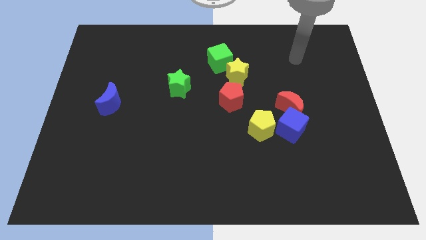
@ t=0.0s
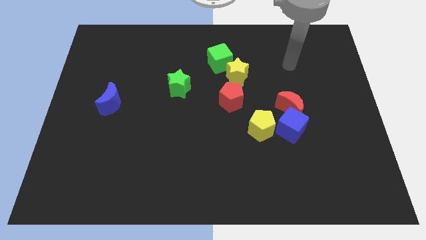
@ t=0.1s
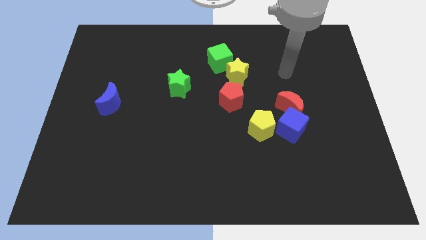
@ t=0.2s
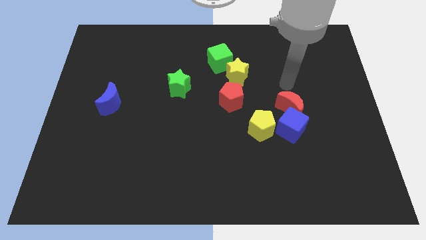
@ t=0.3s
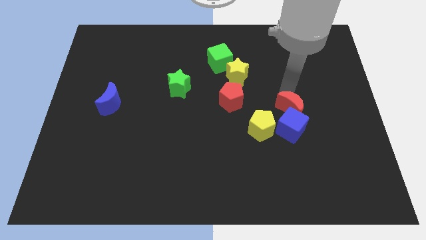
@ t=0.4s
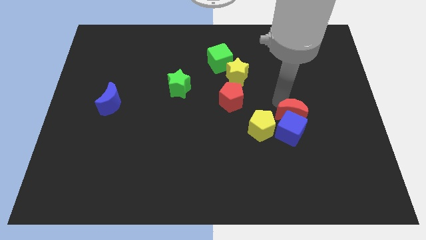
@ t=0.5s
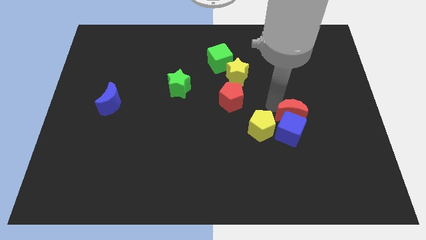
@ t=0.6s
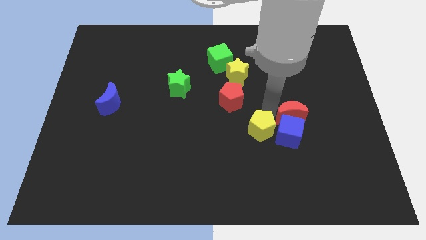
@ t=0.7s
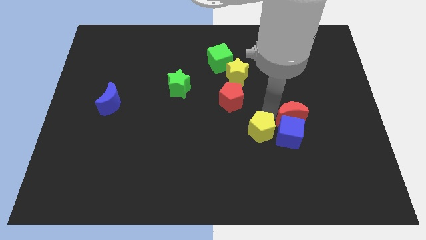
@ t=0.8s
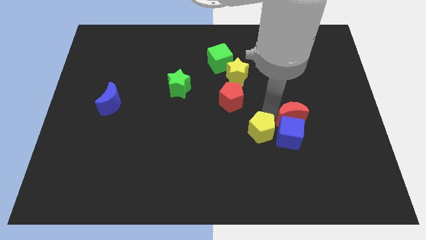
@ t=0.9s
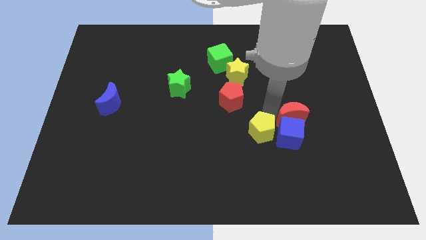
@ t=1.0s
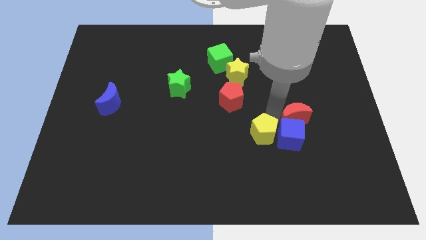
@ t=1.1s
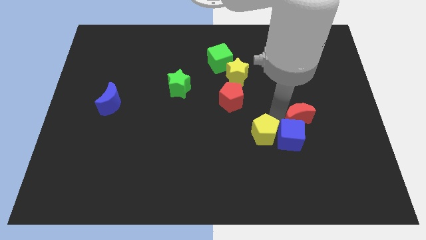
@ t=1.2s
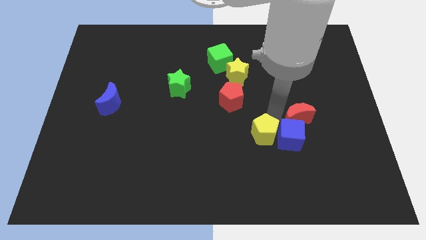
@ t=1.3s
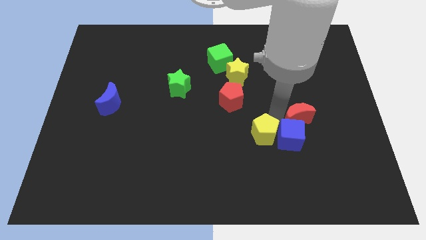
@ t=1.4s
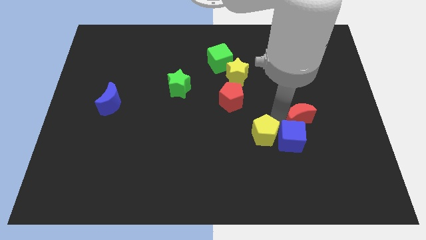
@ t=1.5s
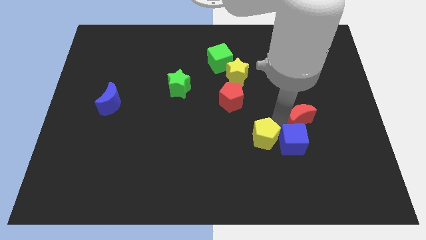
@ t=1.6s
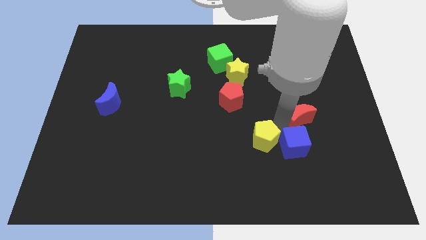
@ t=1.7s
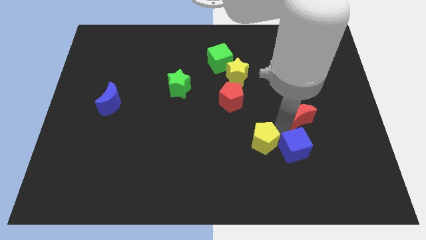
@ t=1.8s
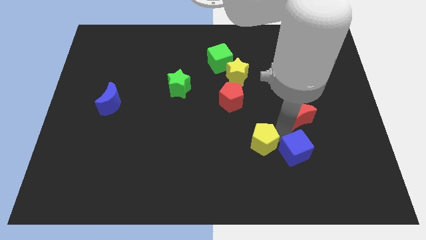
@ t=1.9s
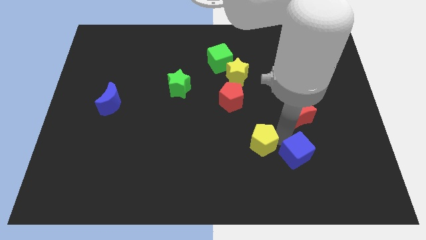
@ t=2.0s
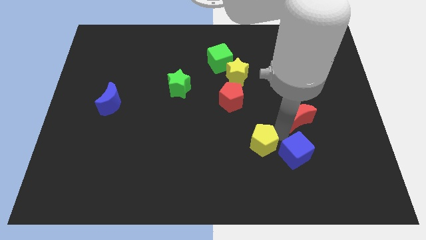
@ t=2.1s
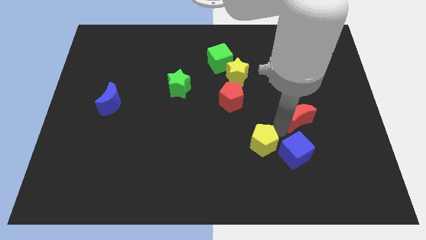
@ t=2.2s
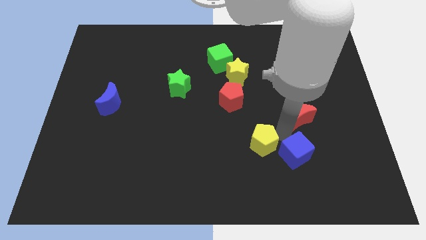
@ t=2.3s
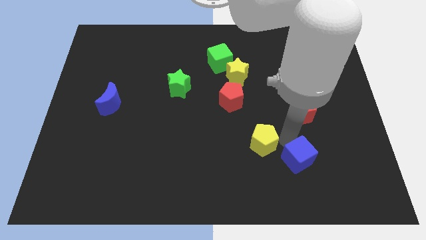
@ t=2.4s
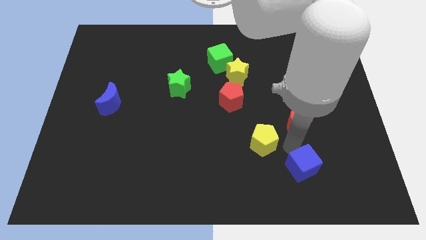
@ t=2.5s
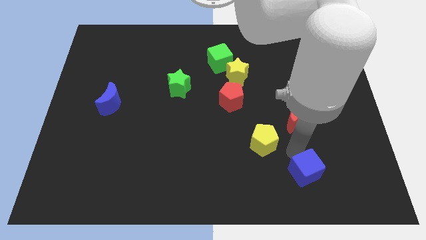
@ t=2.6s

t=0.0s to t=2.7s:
separate the blue cube from the red moon and yellow pentagon

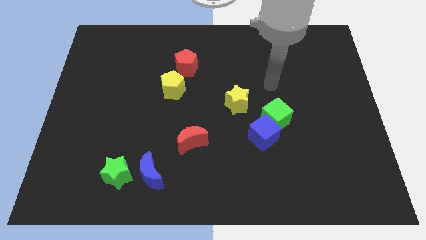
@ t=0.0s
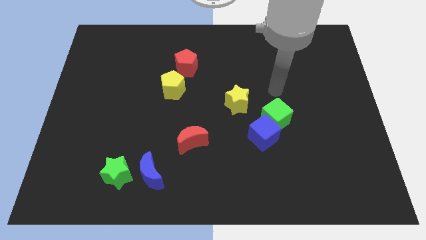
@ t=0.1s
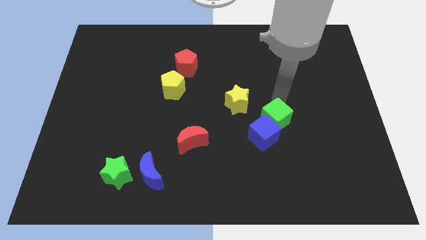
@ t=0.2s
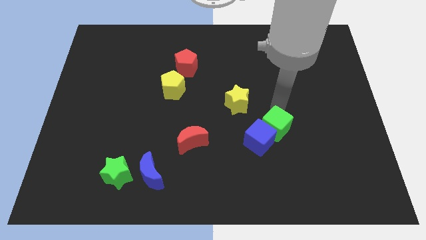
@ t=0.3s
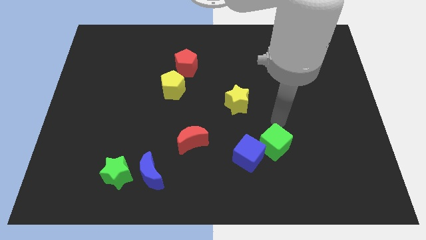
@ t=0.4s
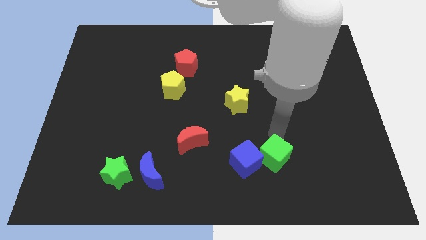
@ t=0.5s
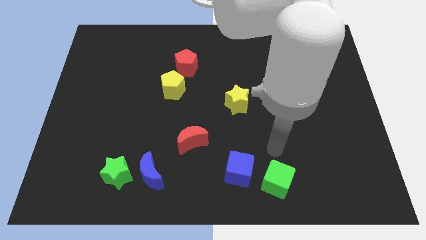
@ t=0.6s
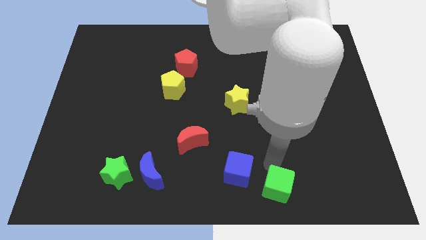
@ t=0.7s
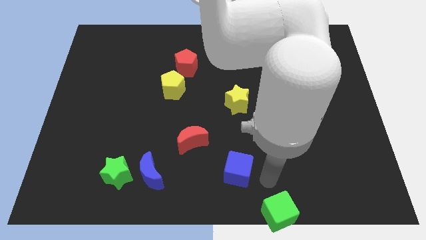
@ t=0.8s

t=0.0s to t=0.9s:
pull the blue cube apart from the green cube

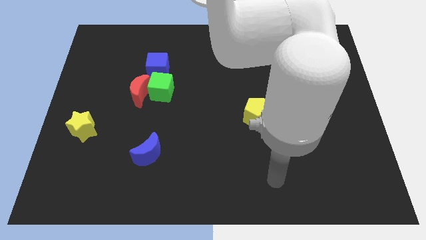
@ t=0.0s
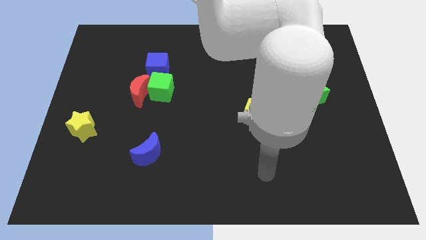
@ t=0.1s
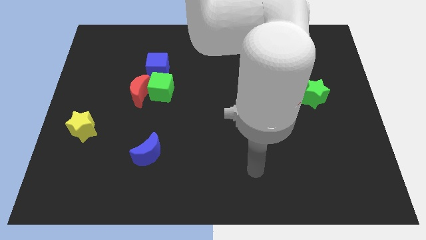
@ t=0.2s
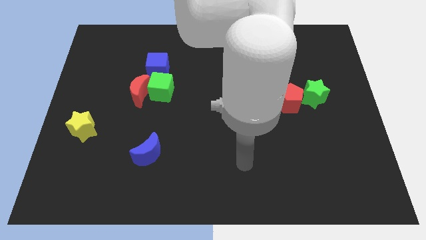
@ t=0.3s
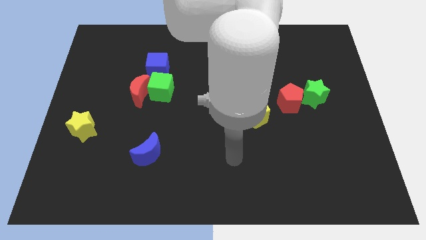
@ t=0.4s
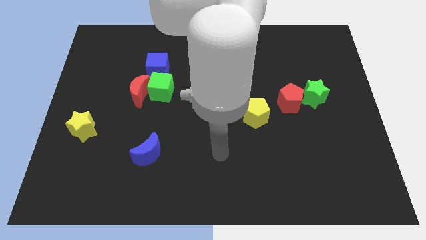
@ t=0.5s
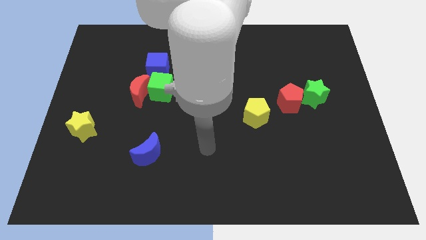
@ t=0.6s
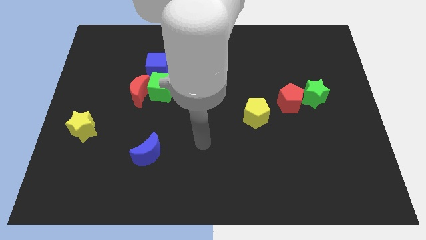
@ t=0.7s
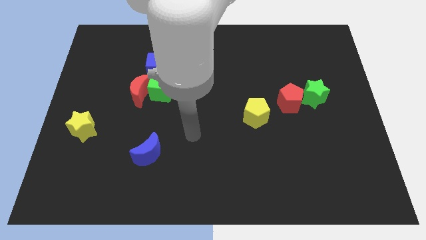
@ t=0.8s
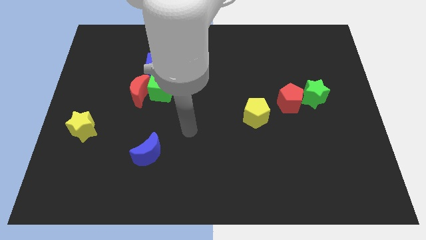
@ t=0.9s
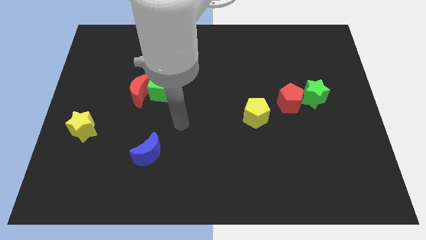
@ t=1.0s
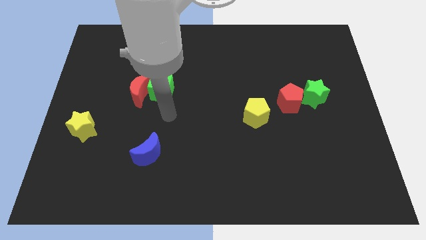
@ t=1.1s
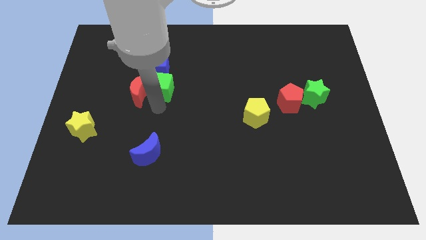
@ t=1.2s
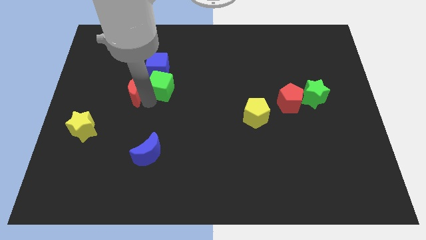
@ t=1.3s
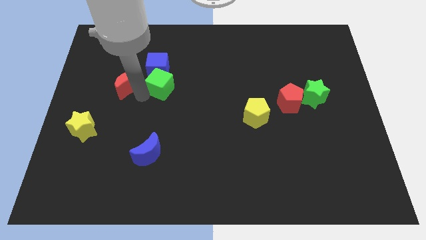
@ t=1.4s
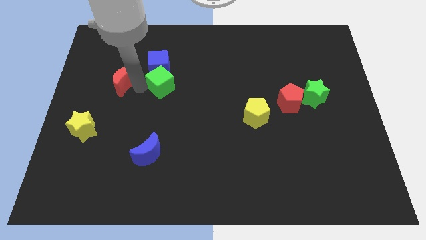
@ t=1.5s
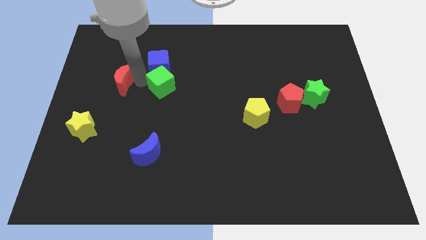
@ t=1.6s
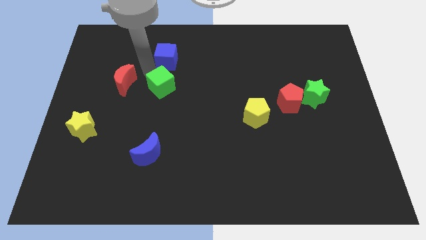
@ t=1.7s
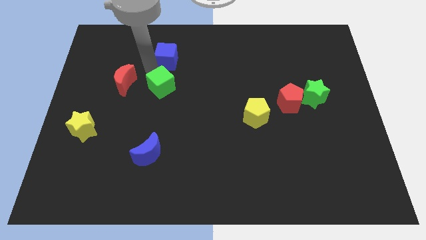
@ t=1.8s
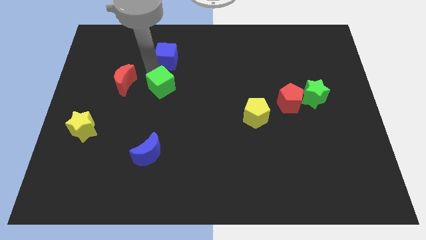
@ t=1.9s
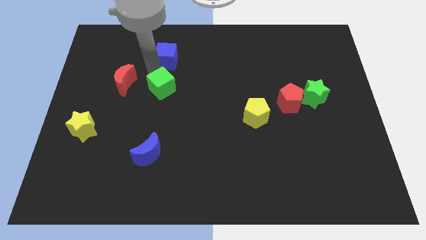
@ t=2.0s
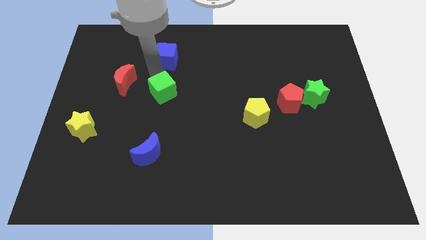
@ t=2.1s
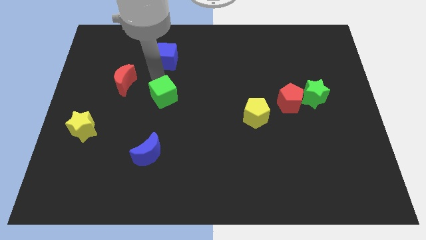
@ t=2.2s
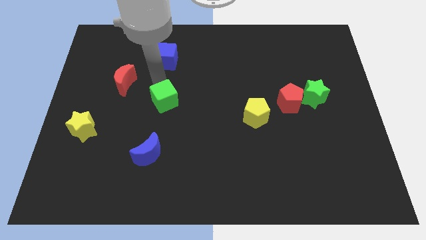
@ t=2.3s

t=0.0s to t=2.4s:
move the green cube away from the red moon and blue cube

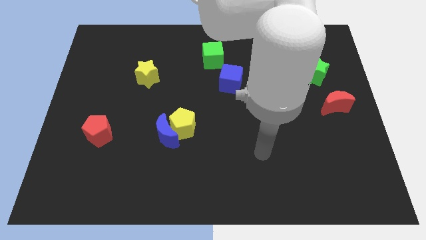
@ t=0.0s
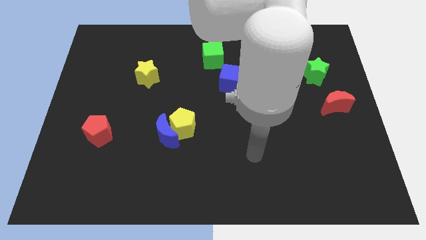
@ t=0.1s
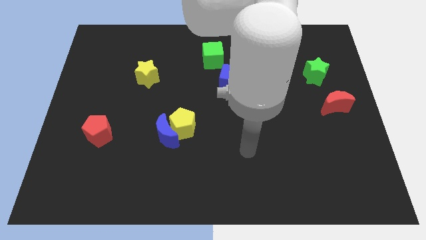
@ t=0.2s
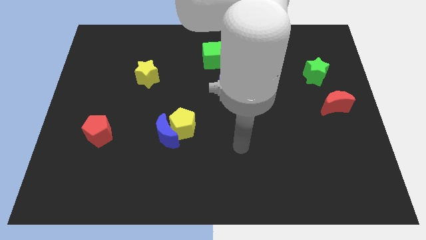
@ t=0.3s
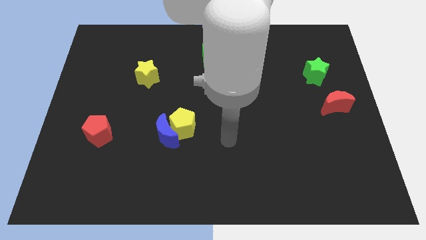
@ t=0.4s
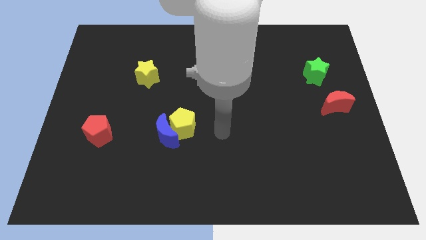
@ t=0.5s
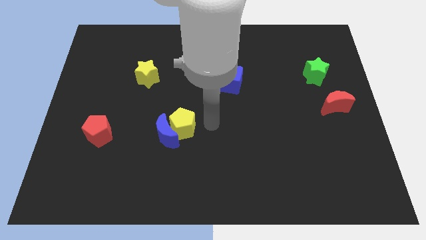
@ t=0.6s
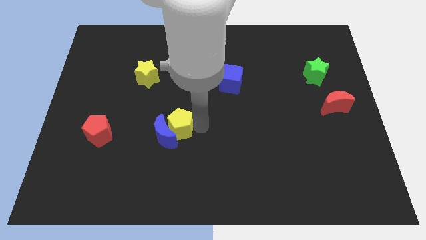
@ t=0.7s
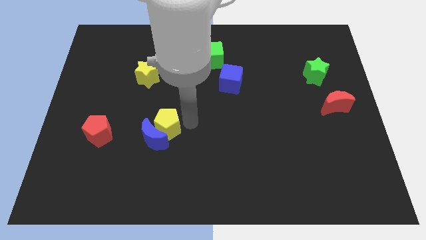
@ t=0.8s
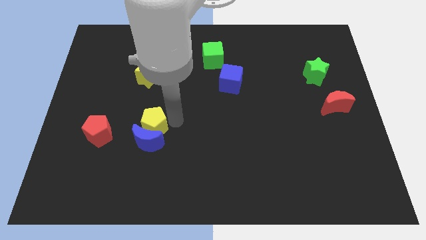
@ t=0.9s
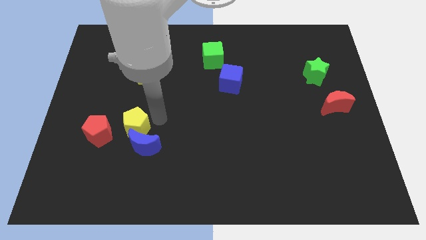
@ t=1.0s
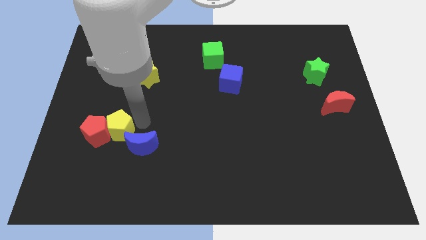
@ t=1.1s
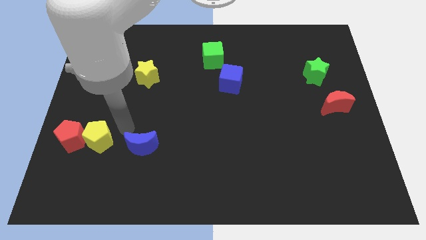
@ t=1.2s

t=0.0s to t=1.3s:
separate the blue moon from the yellow pentagon

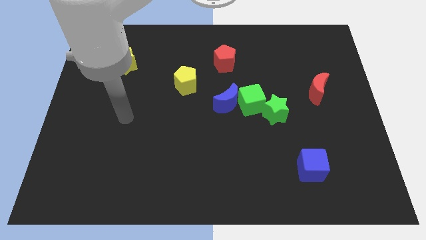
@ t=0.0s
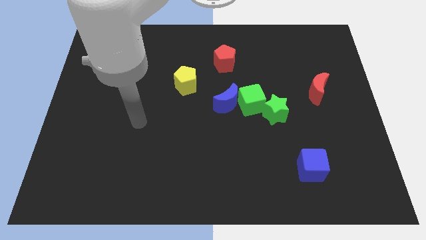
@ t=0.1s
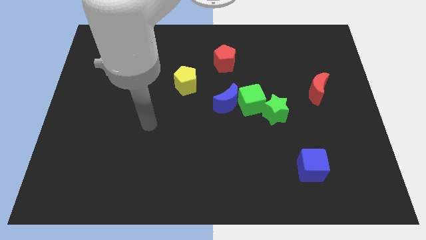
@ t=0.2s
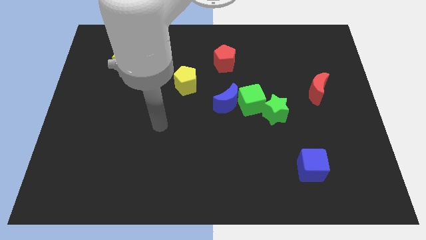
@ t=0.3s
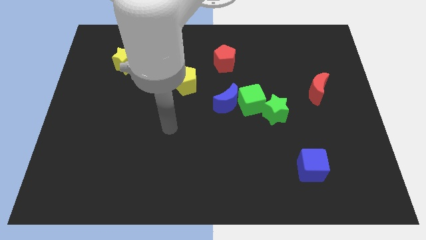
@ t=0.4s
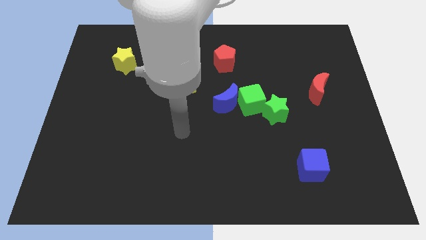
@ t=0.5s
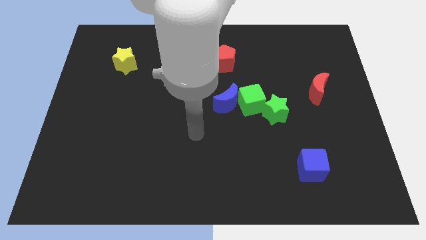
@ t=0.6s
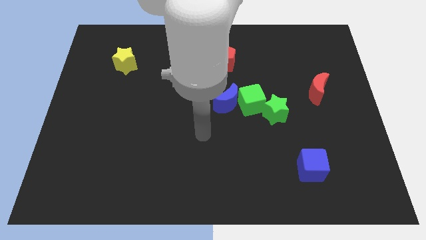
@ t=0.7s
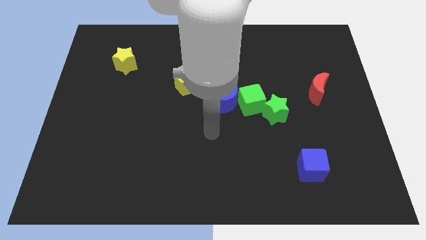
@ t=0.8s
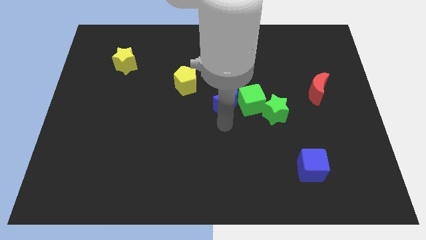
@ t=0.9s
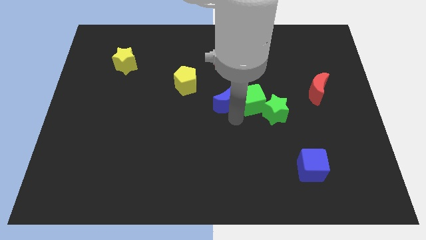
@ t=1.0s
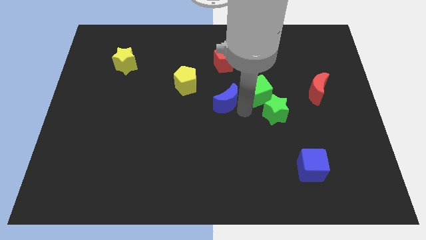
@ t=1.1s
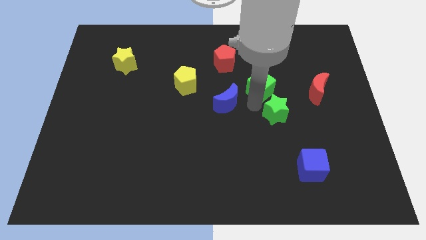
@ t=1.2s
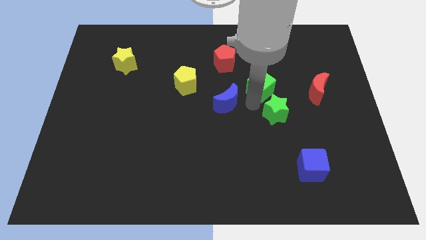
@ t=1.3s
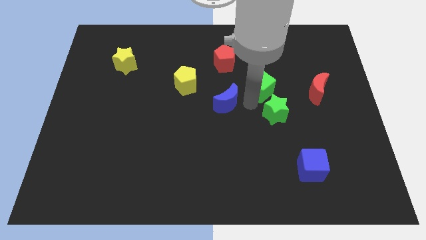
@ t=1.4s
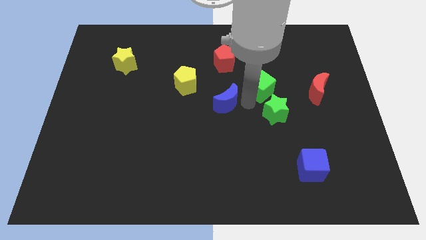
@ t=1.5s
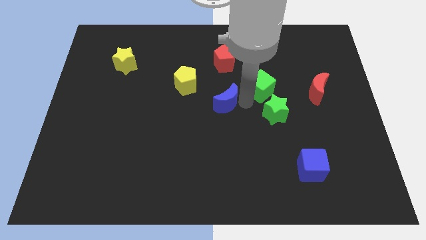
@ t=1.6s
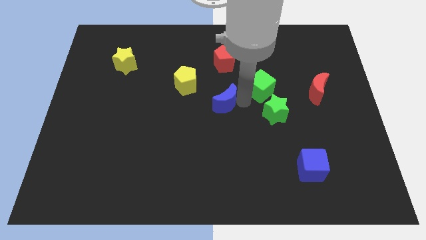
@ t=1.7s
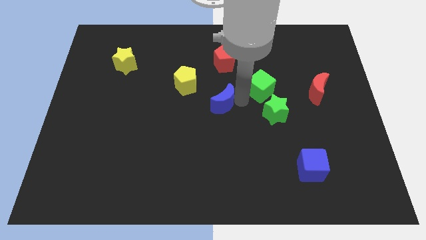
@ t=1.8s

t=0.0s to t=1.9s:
move the blue moon away from the green cube

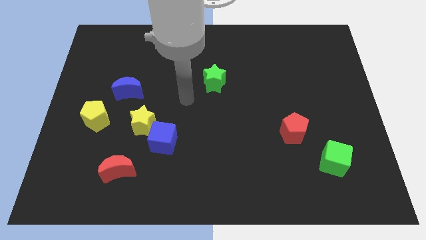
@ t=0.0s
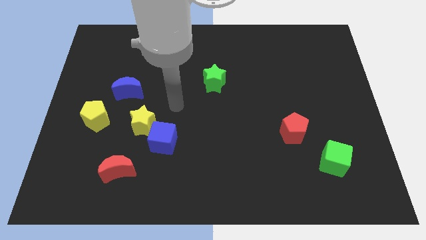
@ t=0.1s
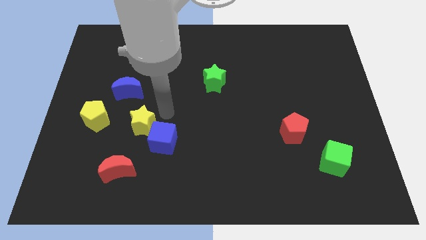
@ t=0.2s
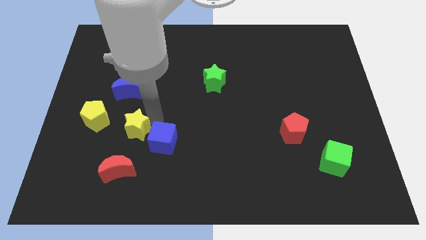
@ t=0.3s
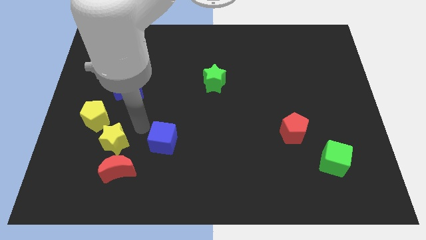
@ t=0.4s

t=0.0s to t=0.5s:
pull the blue cube apart from the yellow star
